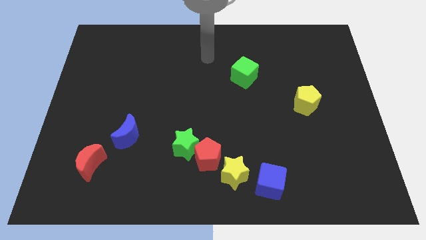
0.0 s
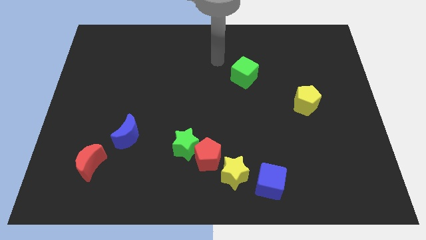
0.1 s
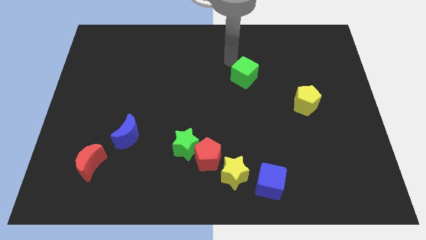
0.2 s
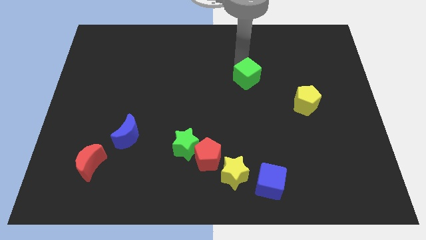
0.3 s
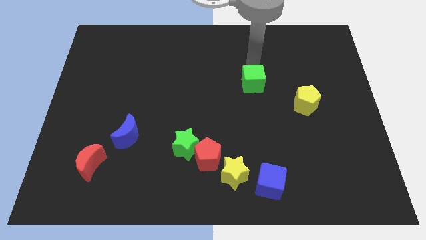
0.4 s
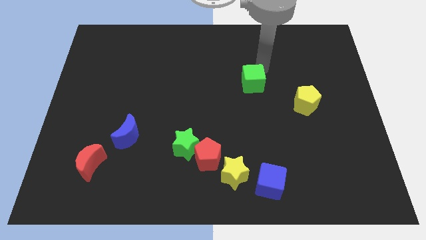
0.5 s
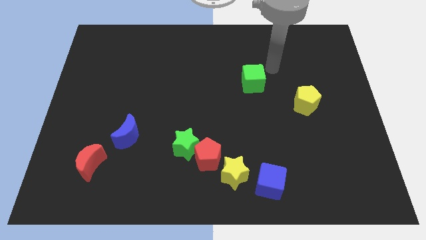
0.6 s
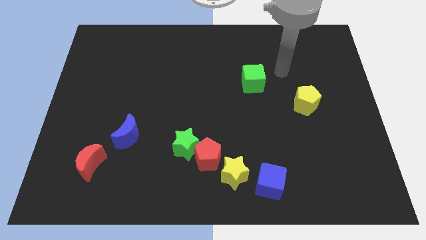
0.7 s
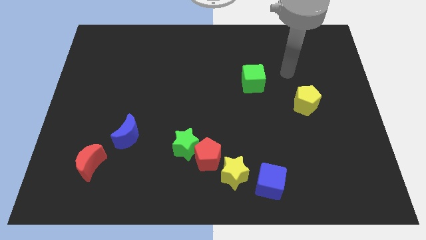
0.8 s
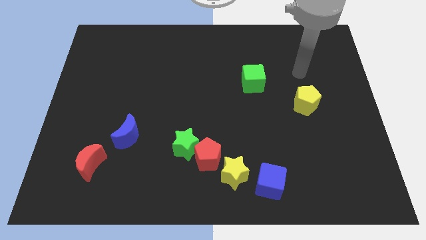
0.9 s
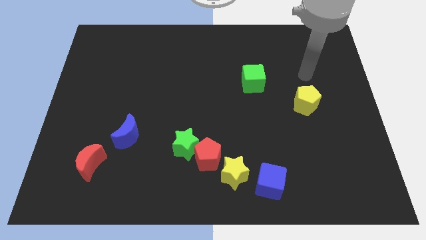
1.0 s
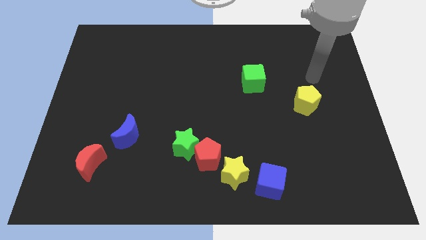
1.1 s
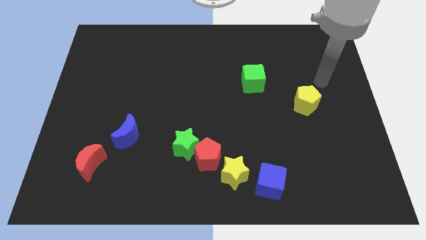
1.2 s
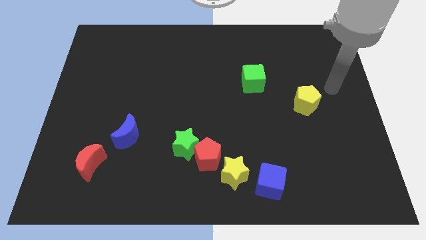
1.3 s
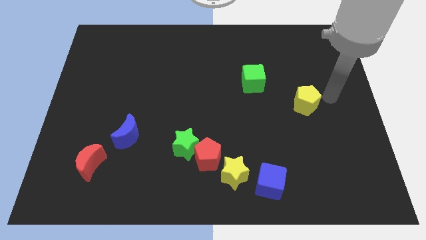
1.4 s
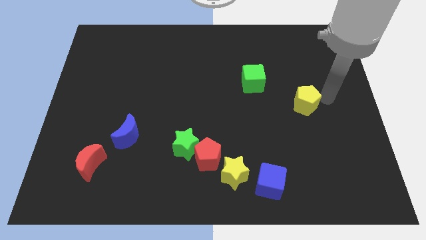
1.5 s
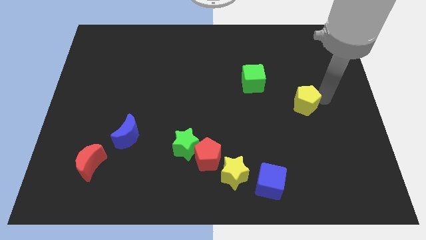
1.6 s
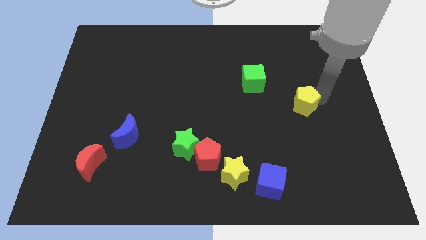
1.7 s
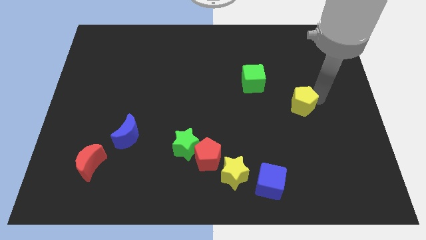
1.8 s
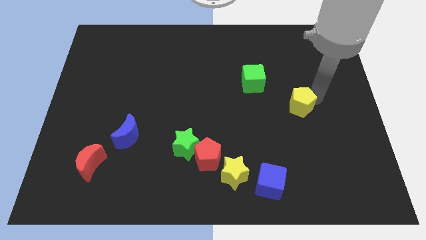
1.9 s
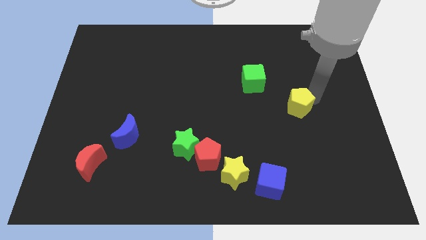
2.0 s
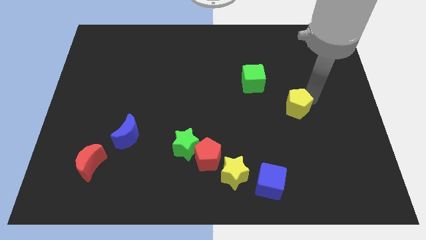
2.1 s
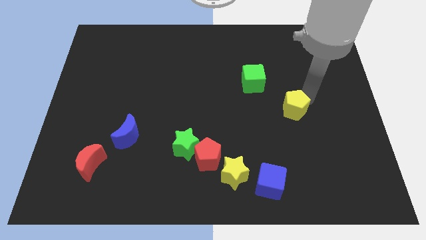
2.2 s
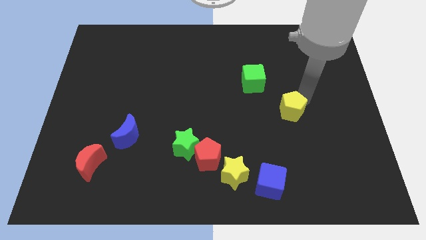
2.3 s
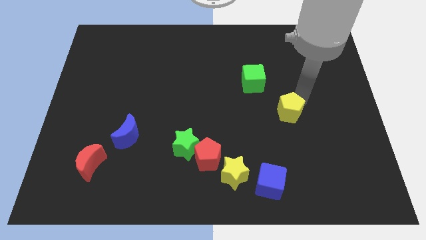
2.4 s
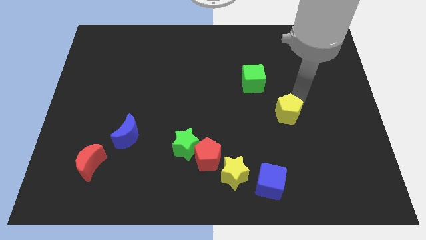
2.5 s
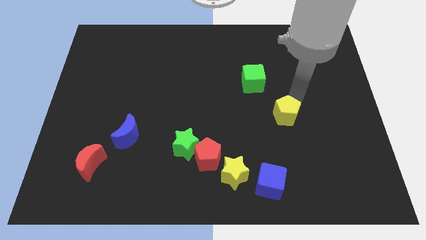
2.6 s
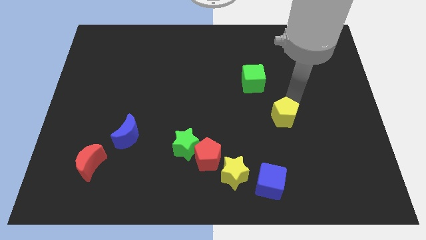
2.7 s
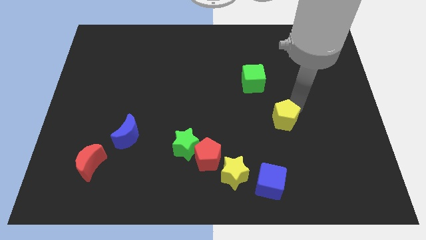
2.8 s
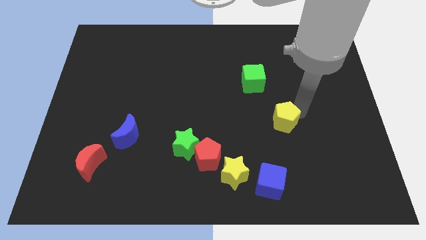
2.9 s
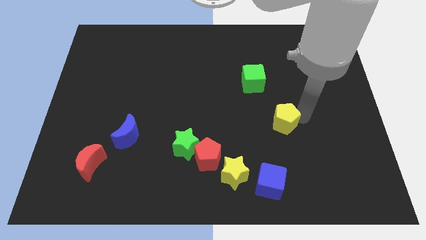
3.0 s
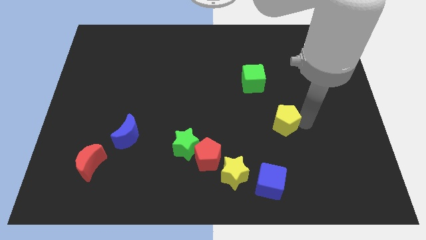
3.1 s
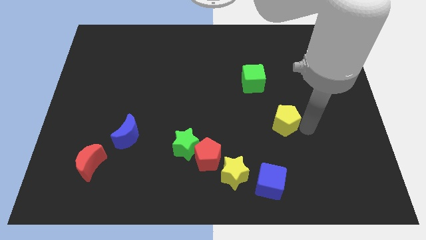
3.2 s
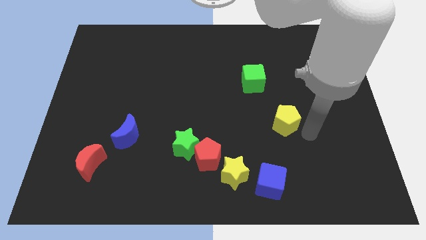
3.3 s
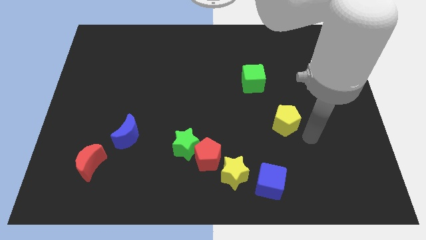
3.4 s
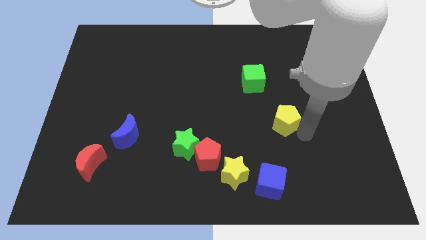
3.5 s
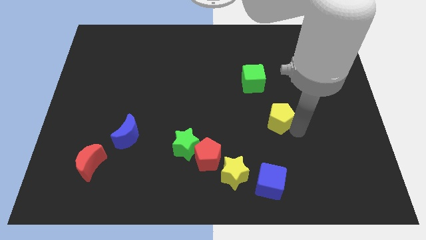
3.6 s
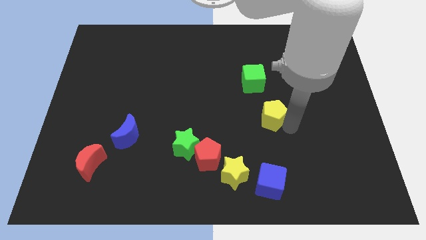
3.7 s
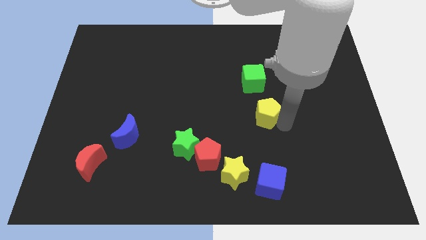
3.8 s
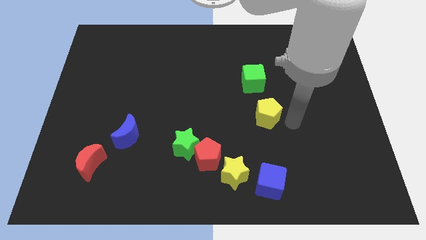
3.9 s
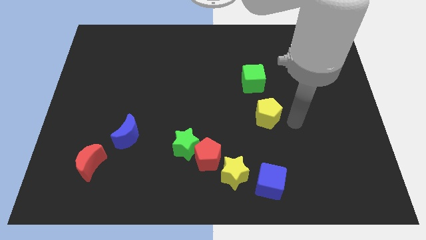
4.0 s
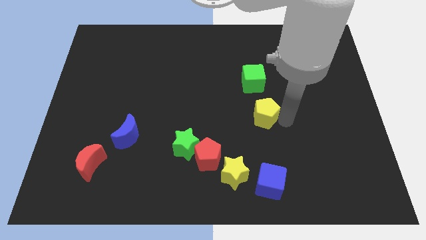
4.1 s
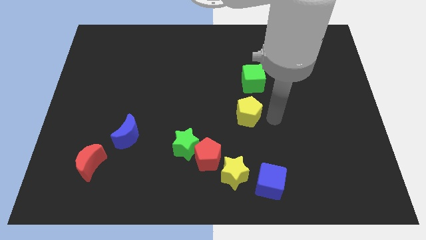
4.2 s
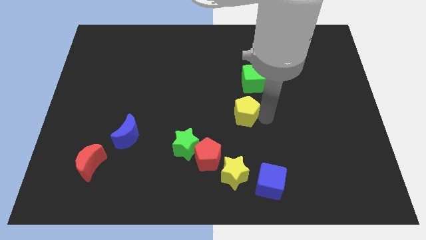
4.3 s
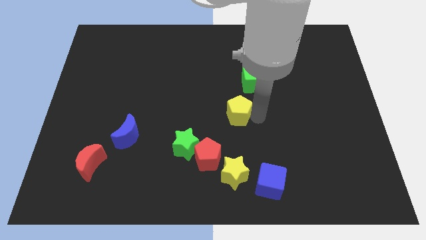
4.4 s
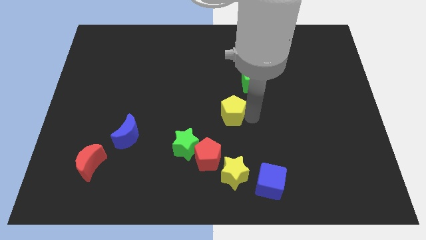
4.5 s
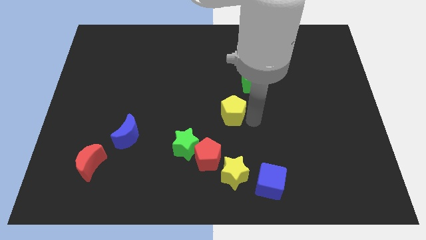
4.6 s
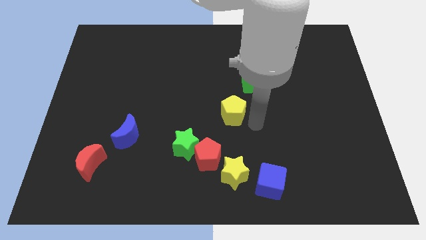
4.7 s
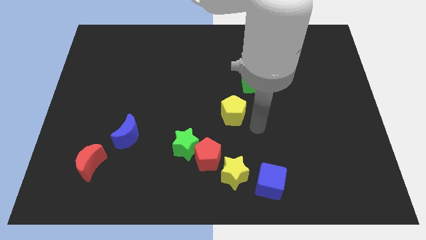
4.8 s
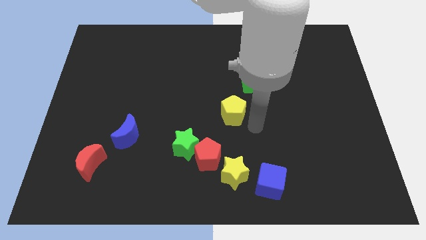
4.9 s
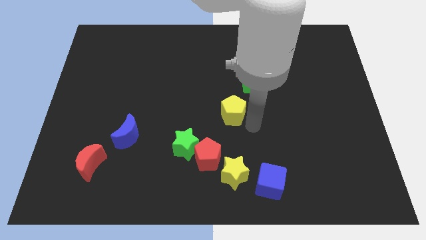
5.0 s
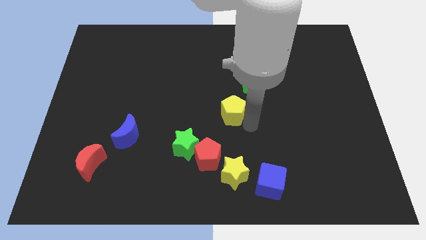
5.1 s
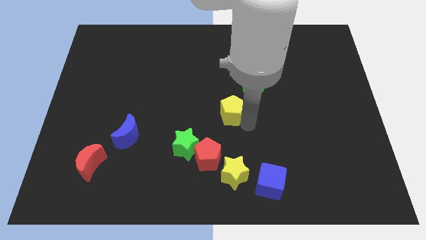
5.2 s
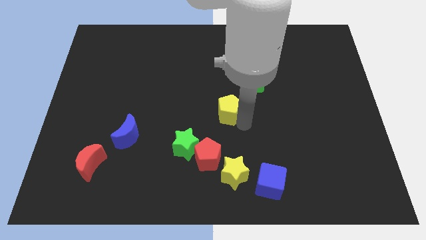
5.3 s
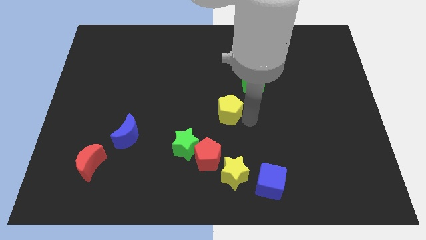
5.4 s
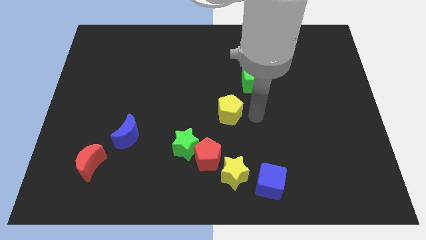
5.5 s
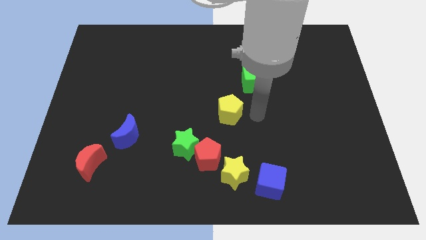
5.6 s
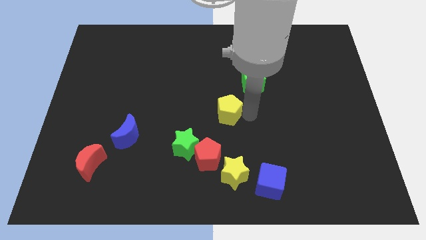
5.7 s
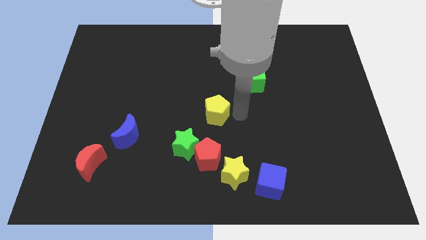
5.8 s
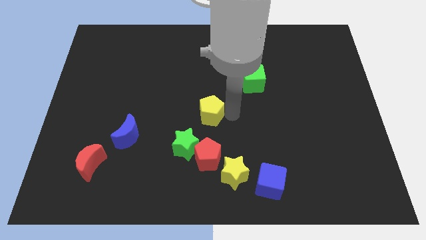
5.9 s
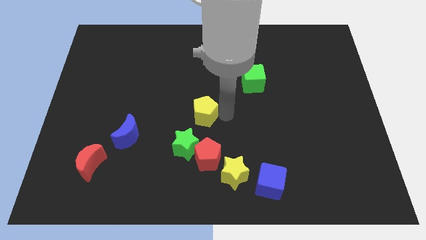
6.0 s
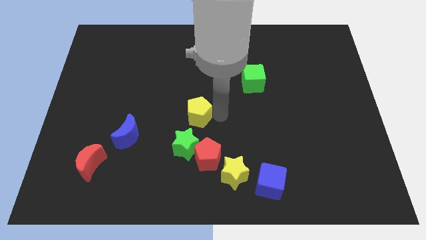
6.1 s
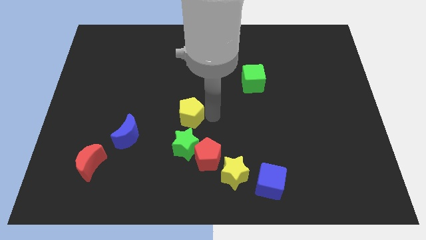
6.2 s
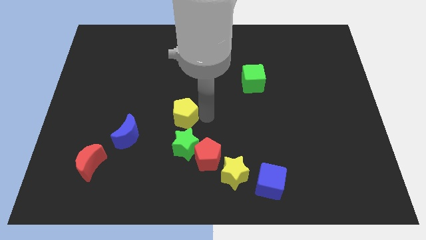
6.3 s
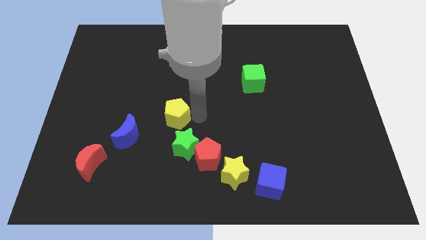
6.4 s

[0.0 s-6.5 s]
put the yellow pentagon to the top right side of the blue moon

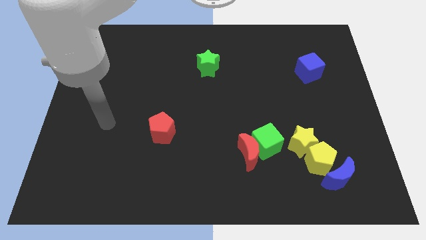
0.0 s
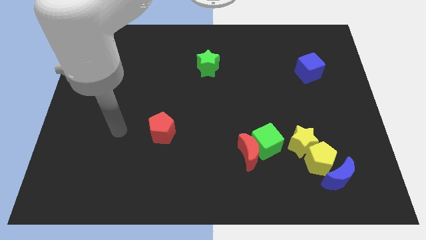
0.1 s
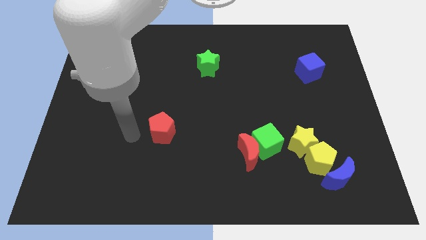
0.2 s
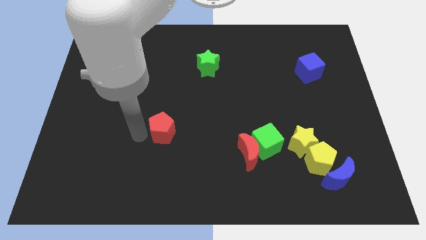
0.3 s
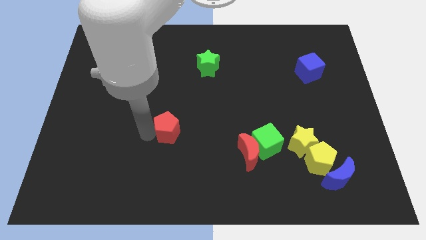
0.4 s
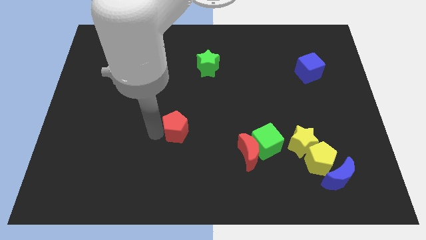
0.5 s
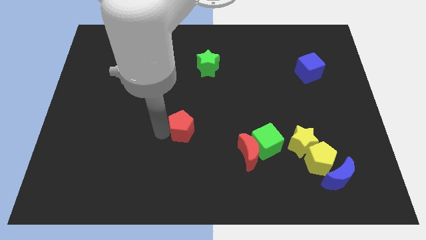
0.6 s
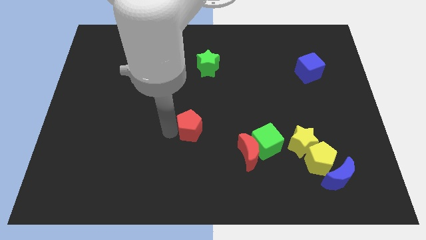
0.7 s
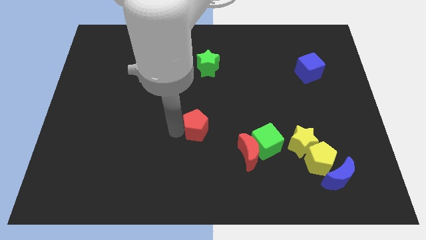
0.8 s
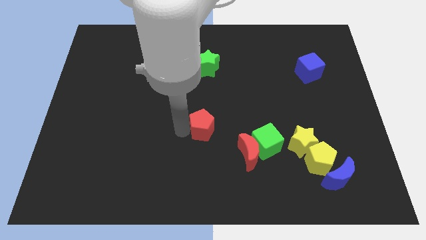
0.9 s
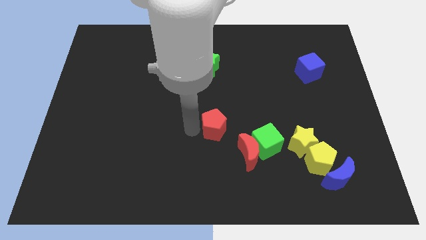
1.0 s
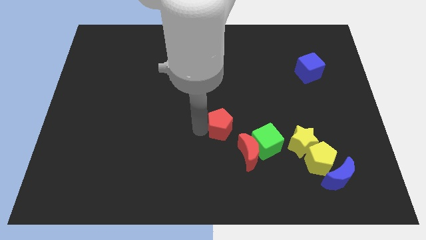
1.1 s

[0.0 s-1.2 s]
put the red pentagon to the top left of the green cube
